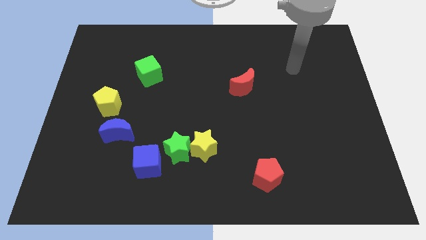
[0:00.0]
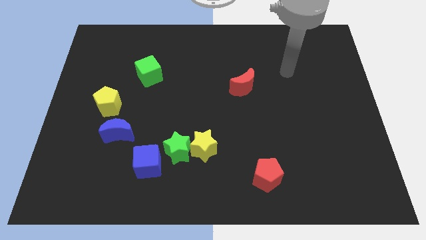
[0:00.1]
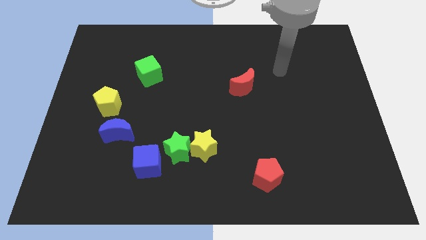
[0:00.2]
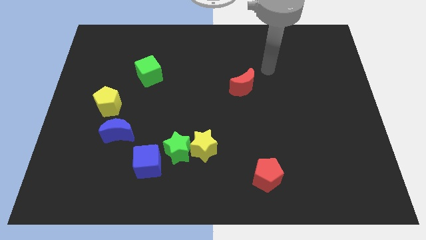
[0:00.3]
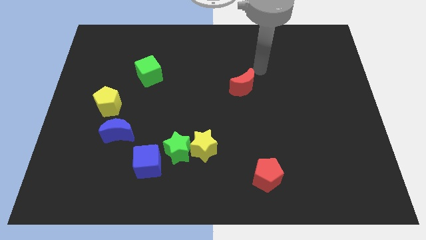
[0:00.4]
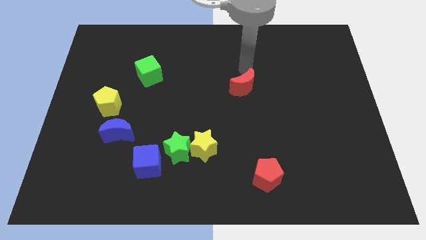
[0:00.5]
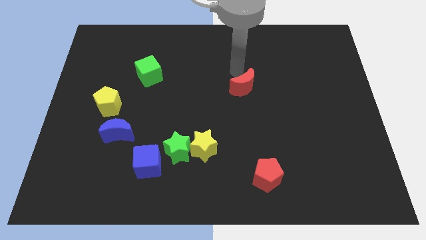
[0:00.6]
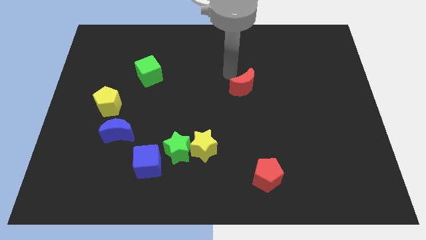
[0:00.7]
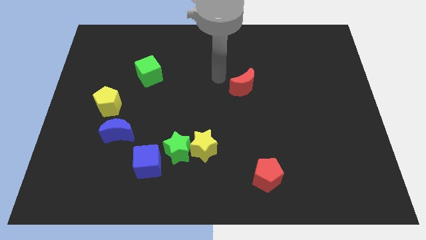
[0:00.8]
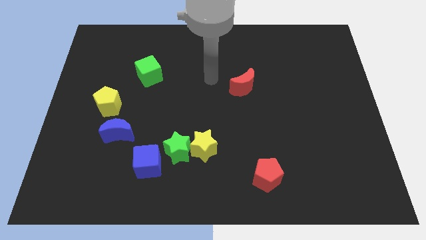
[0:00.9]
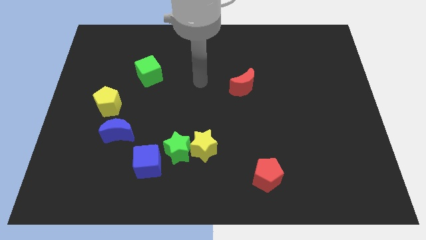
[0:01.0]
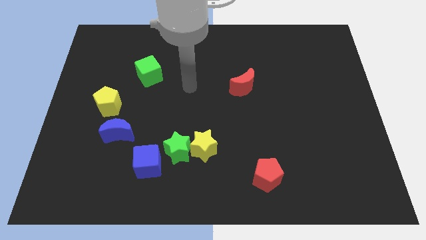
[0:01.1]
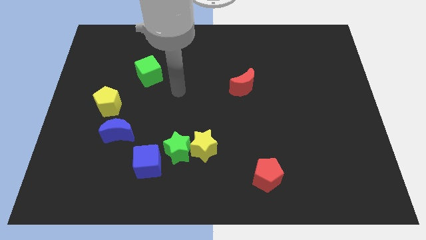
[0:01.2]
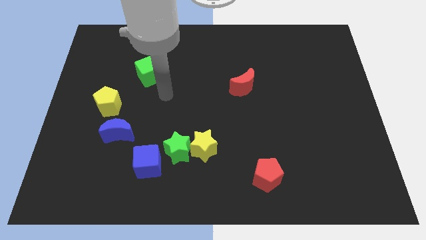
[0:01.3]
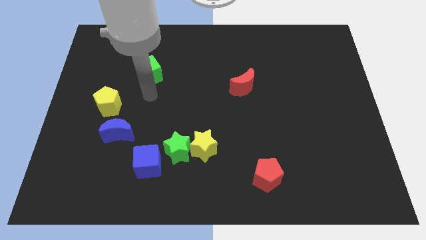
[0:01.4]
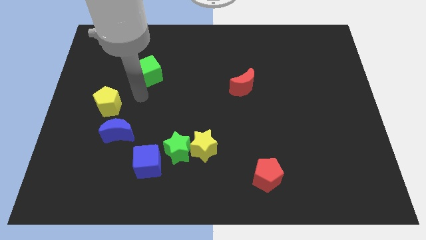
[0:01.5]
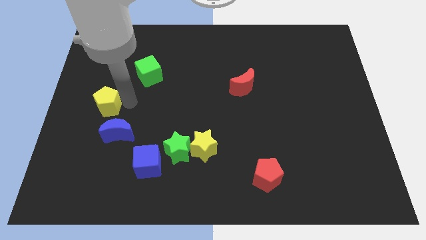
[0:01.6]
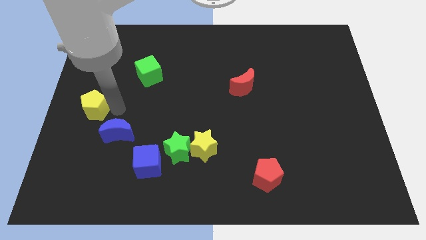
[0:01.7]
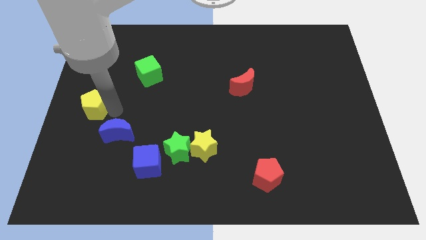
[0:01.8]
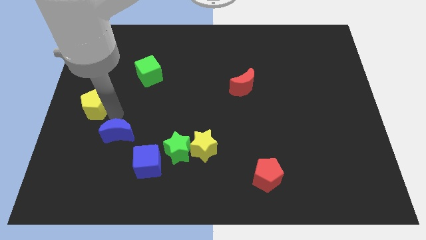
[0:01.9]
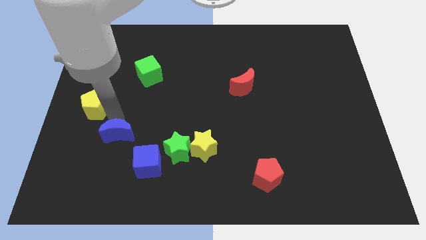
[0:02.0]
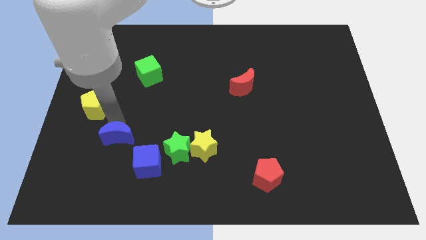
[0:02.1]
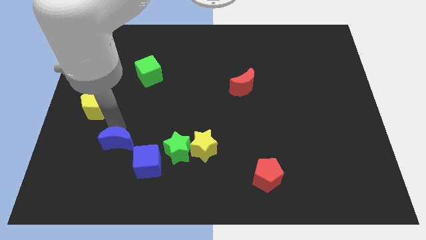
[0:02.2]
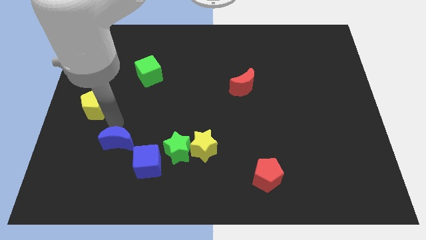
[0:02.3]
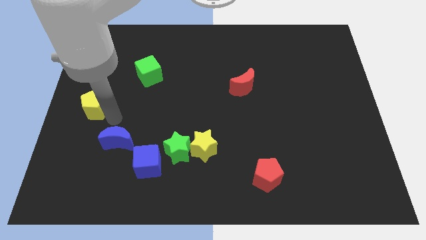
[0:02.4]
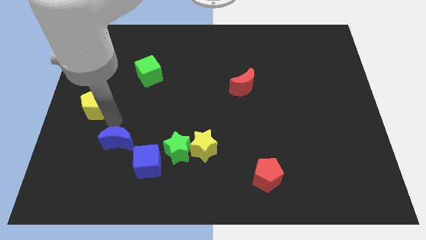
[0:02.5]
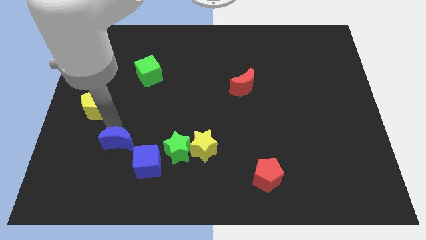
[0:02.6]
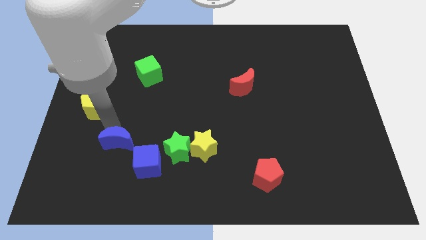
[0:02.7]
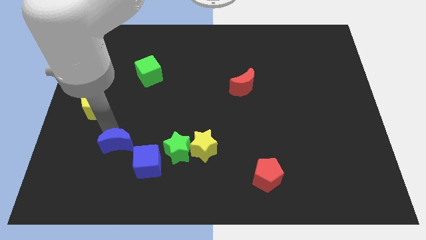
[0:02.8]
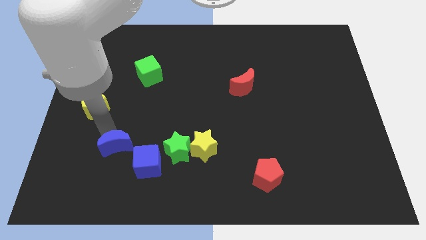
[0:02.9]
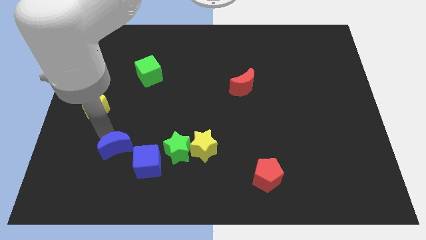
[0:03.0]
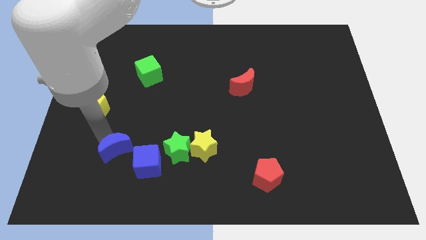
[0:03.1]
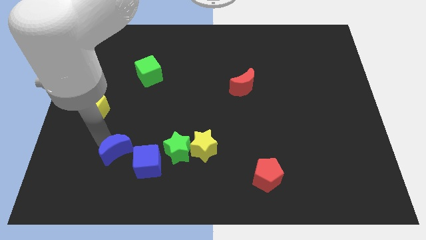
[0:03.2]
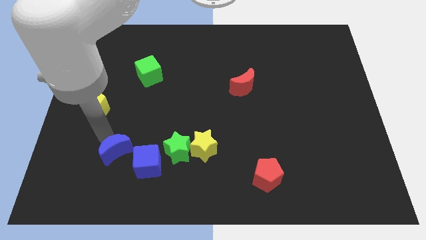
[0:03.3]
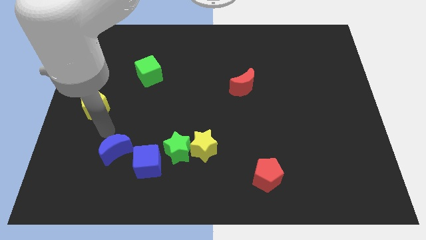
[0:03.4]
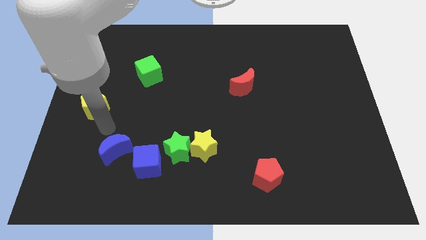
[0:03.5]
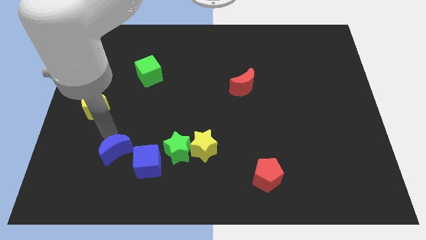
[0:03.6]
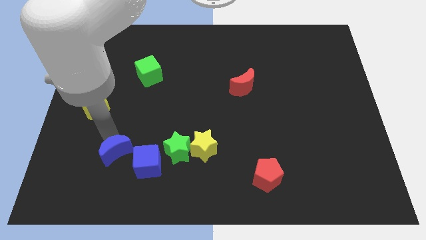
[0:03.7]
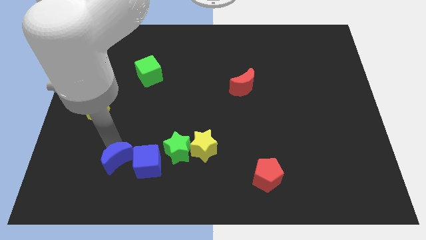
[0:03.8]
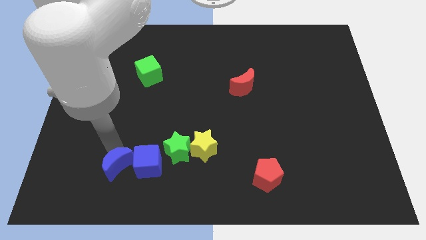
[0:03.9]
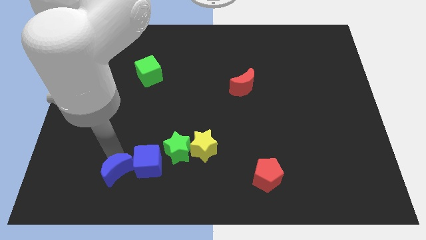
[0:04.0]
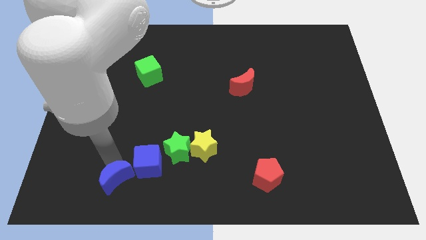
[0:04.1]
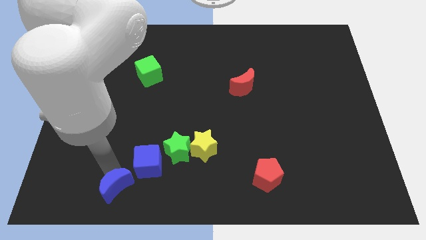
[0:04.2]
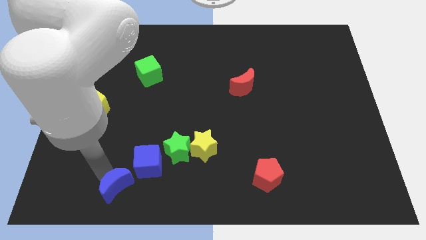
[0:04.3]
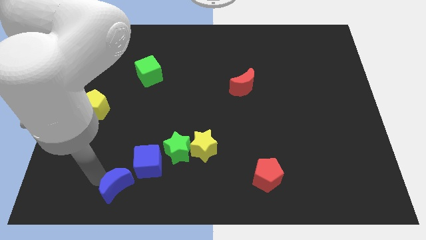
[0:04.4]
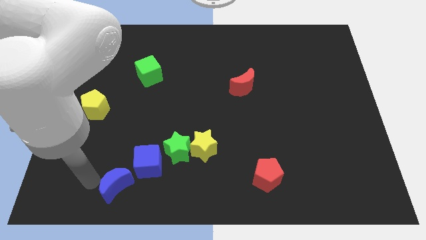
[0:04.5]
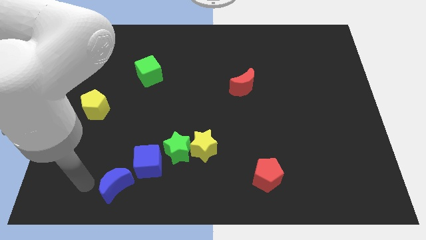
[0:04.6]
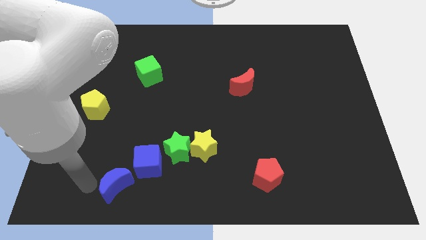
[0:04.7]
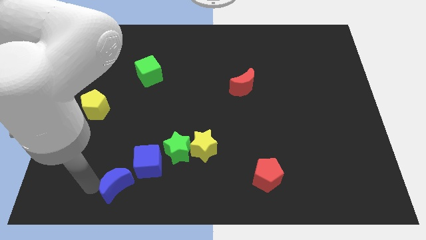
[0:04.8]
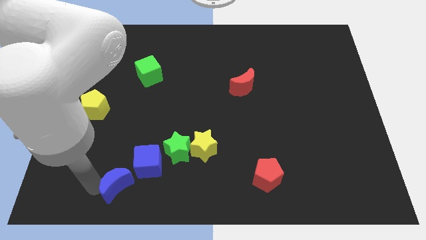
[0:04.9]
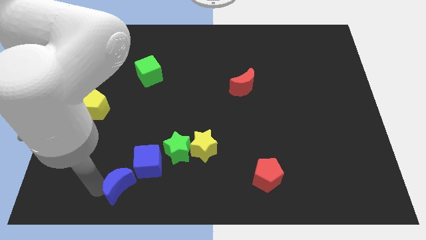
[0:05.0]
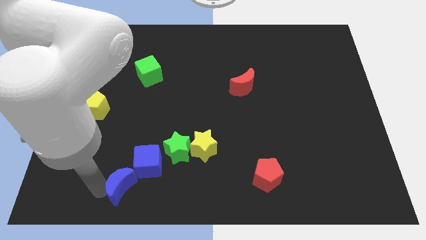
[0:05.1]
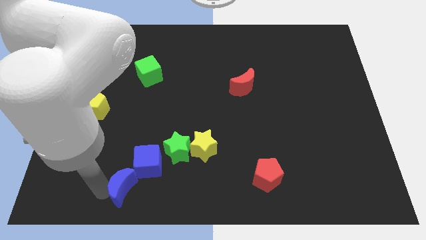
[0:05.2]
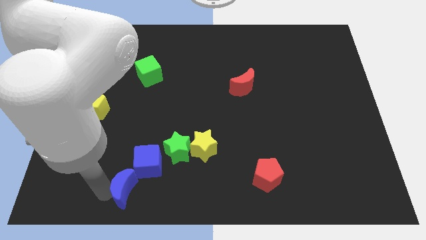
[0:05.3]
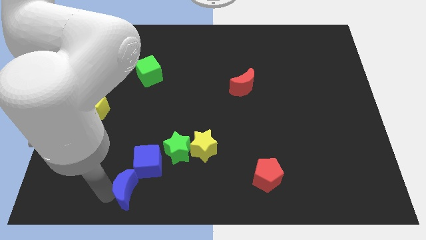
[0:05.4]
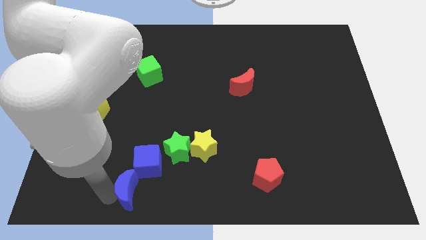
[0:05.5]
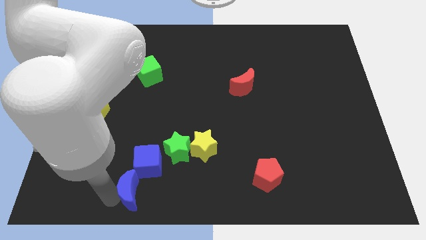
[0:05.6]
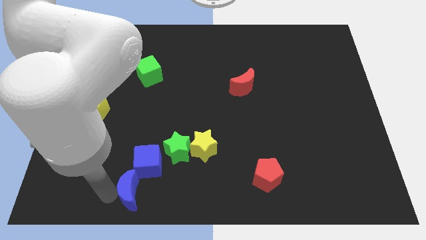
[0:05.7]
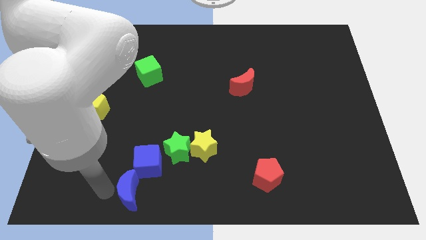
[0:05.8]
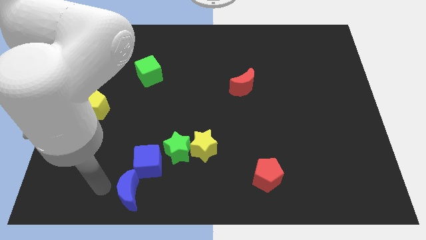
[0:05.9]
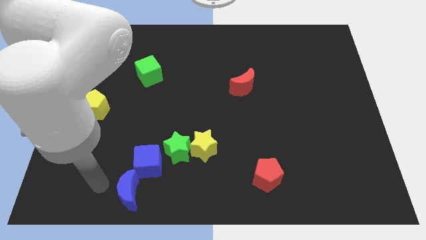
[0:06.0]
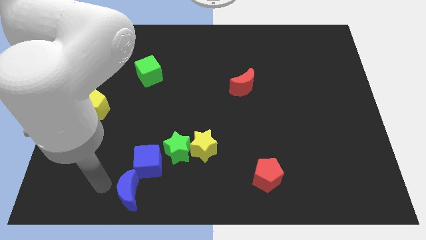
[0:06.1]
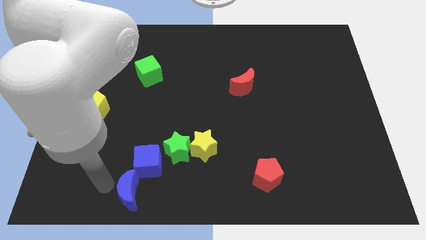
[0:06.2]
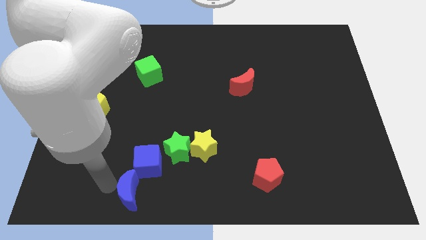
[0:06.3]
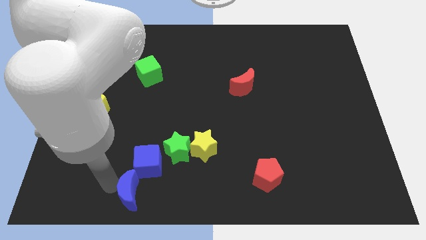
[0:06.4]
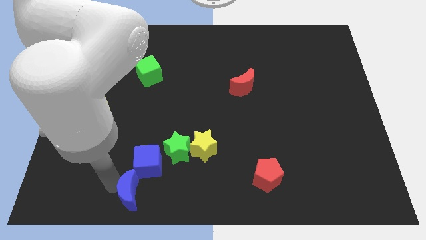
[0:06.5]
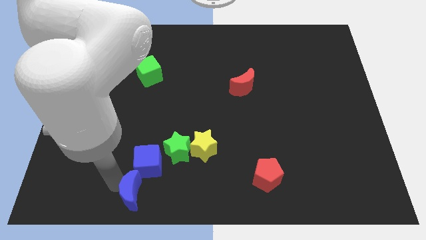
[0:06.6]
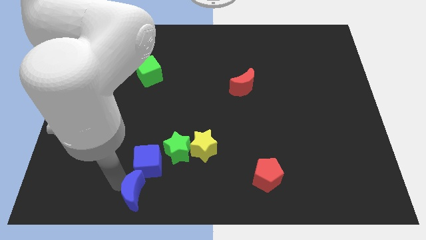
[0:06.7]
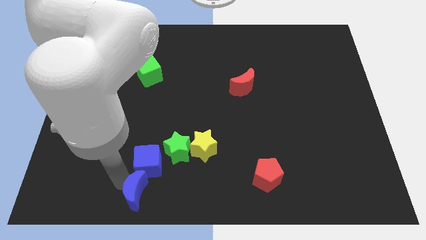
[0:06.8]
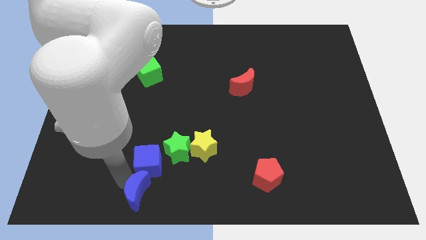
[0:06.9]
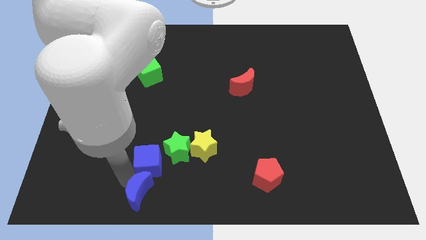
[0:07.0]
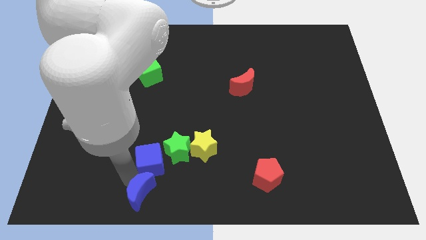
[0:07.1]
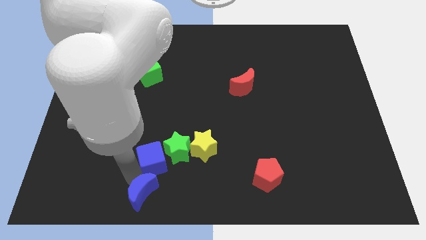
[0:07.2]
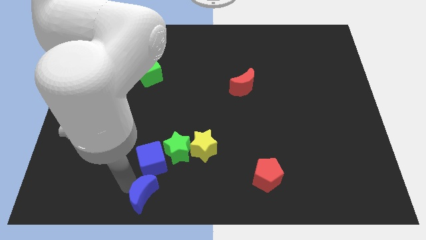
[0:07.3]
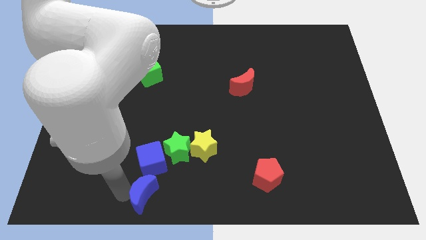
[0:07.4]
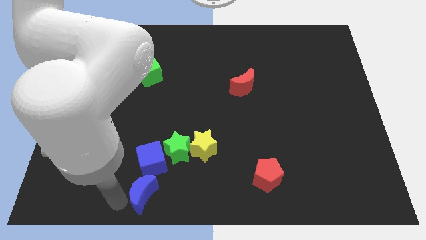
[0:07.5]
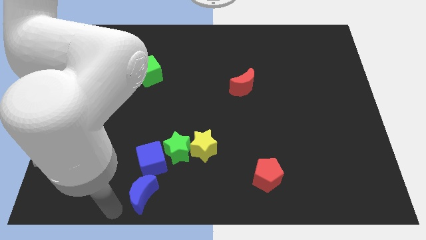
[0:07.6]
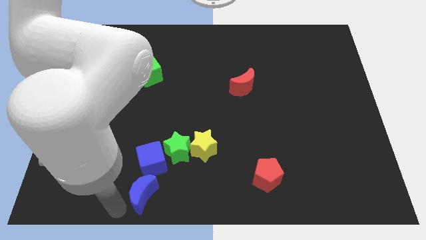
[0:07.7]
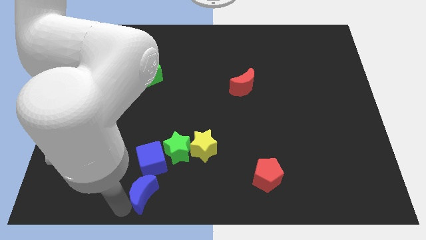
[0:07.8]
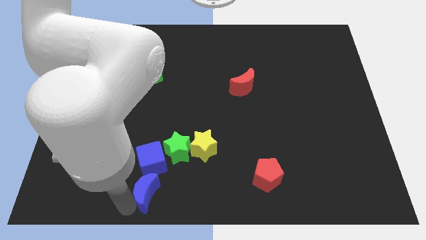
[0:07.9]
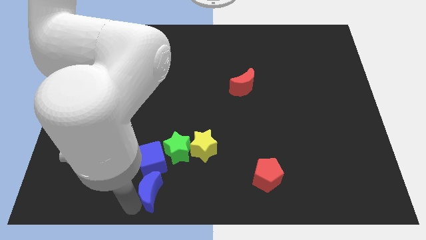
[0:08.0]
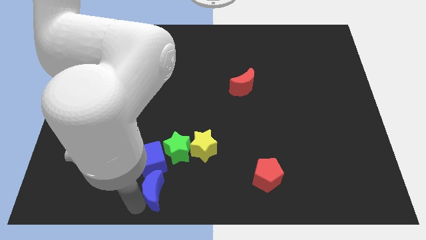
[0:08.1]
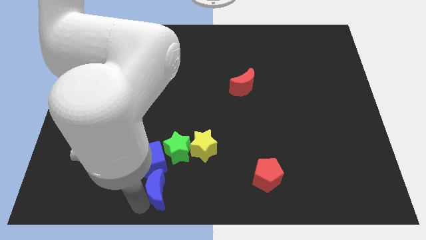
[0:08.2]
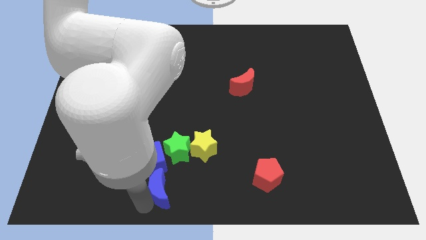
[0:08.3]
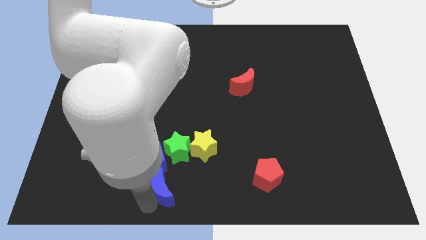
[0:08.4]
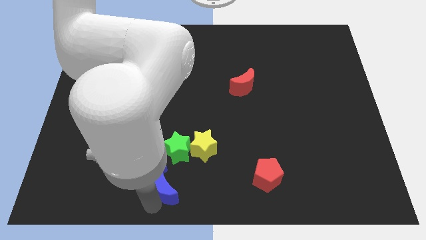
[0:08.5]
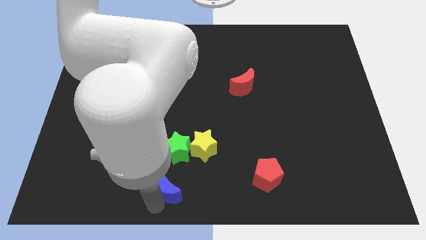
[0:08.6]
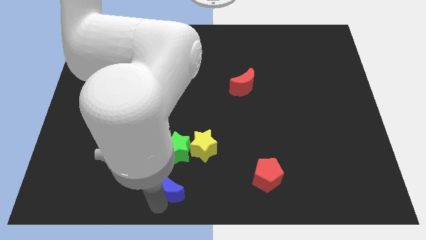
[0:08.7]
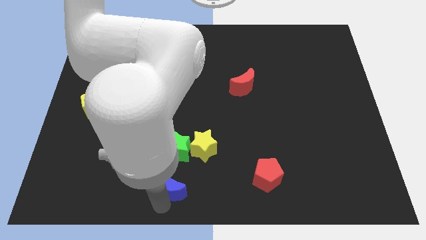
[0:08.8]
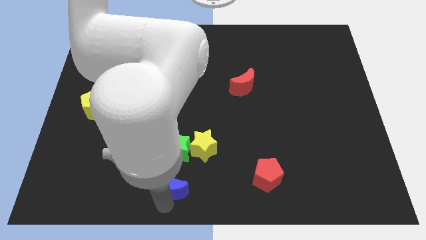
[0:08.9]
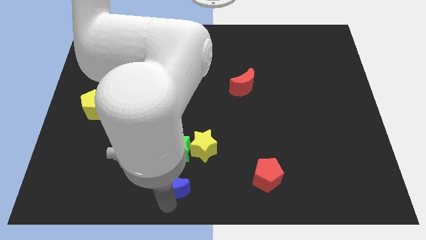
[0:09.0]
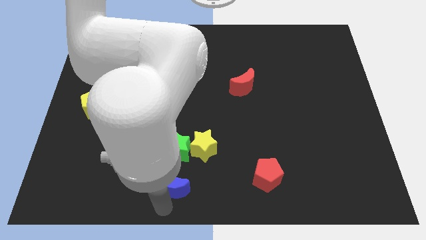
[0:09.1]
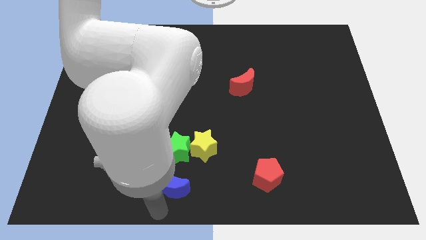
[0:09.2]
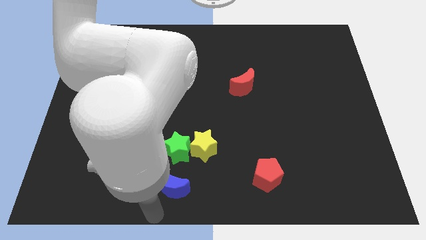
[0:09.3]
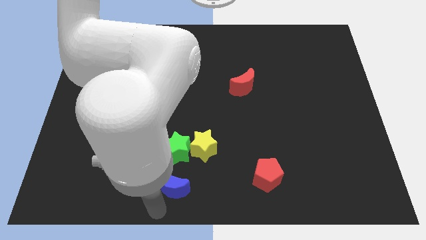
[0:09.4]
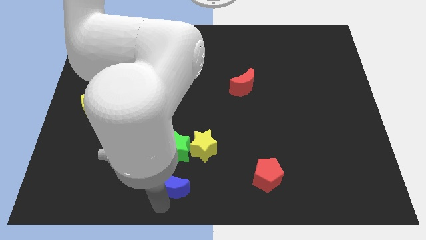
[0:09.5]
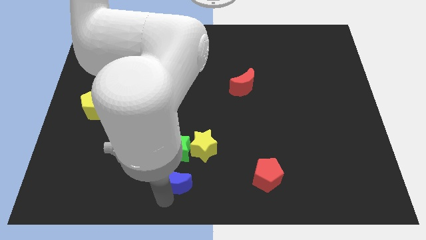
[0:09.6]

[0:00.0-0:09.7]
move the blue moon right of the blue cube
